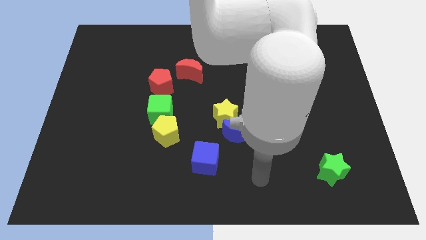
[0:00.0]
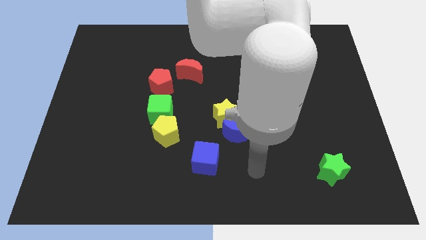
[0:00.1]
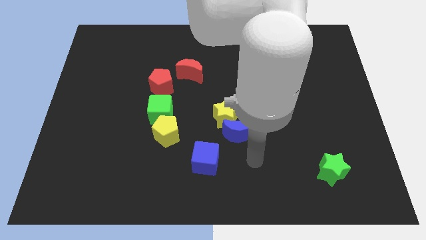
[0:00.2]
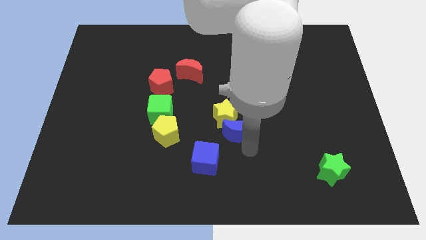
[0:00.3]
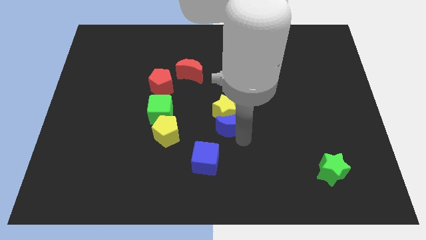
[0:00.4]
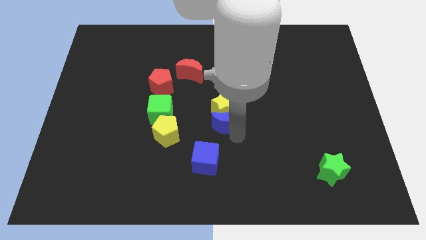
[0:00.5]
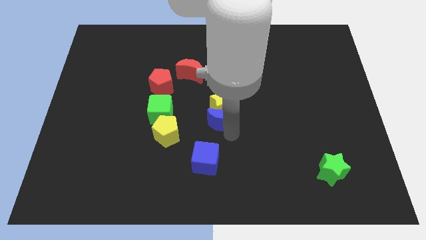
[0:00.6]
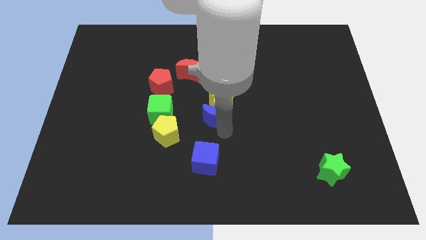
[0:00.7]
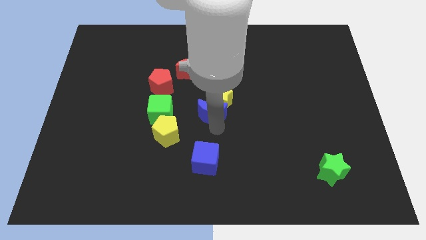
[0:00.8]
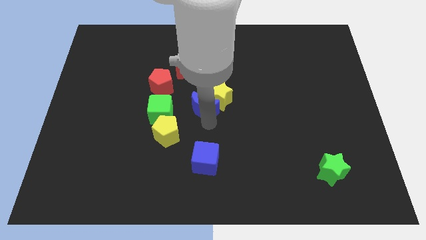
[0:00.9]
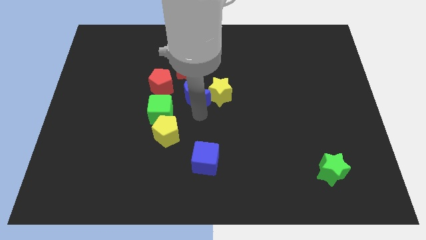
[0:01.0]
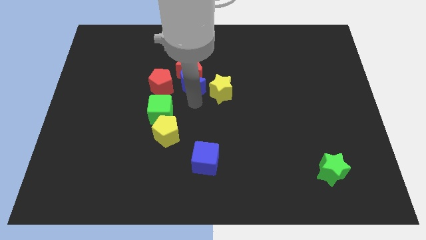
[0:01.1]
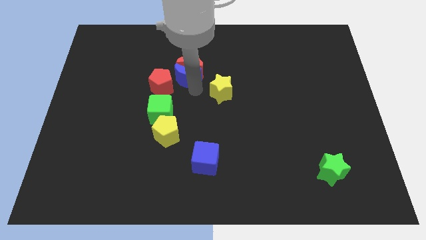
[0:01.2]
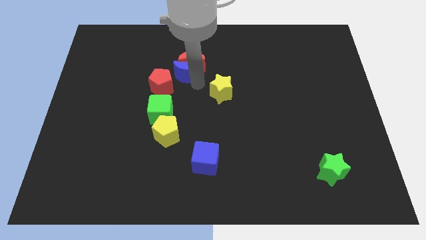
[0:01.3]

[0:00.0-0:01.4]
move the yellow star away from the blue moon

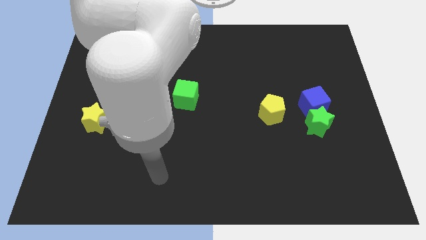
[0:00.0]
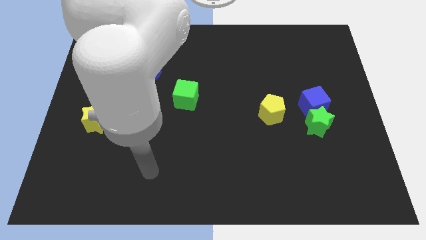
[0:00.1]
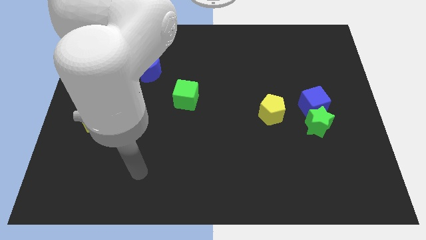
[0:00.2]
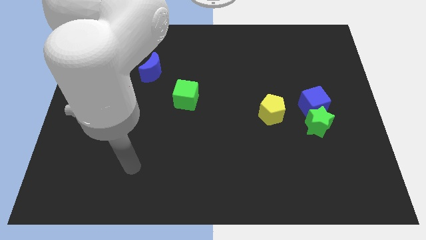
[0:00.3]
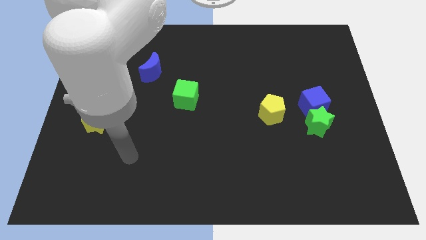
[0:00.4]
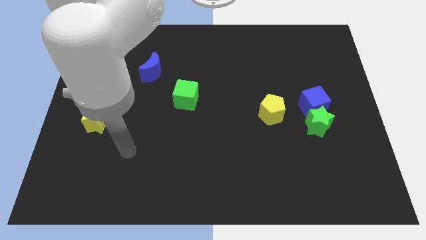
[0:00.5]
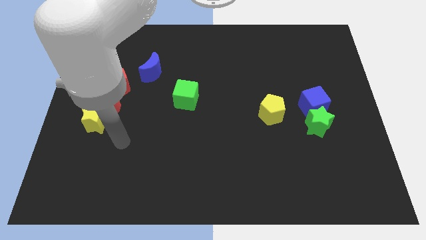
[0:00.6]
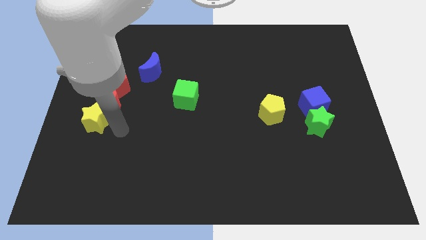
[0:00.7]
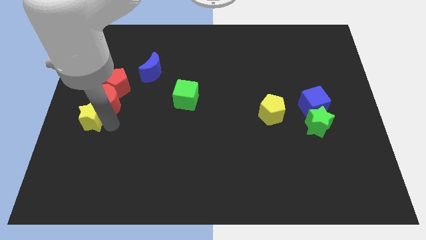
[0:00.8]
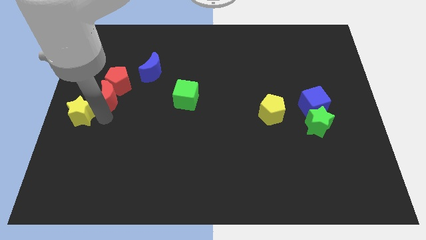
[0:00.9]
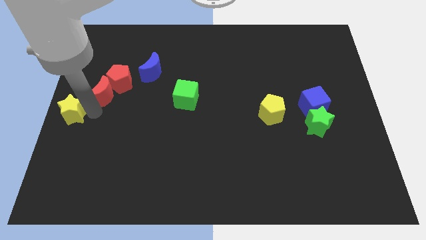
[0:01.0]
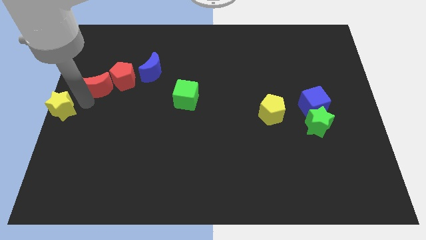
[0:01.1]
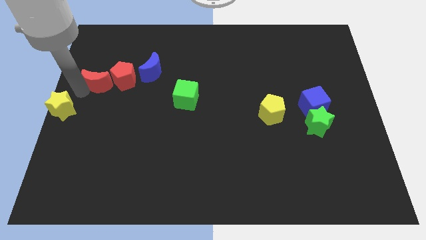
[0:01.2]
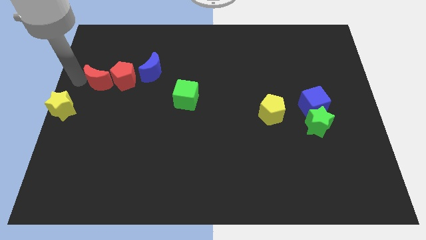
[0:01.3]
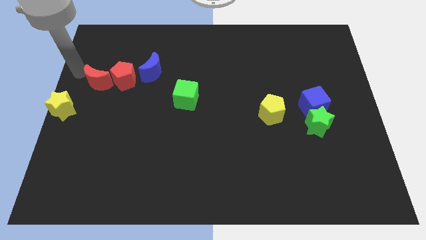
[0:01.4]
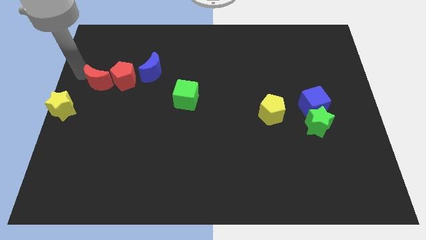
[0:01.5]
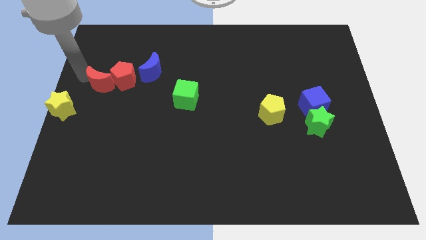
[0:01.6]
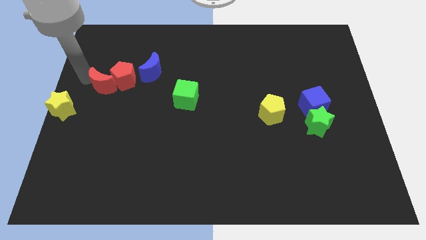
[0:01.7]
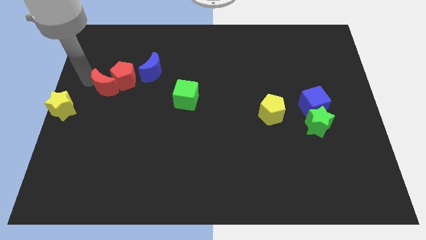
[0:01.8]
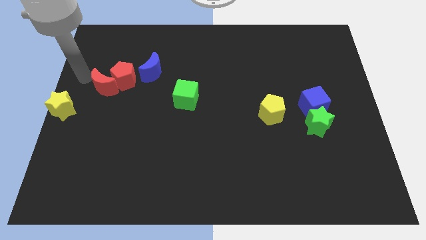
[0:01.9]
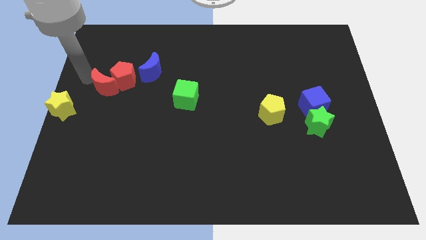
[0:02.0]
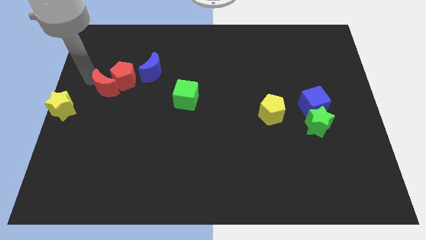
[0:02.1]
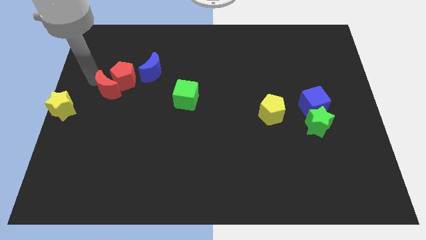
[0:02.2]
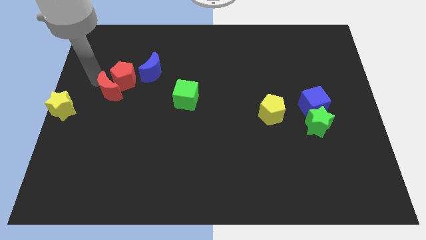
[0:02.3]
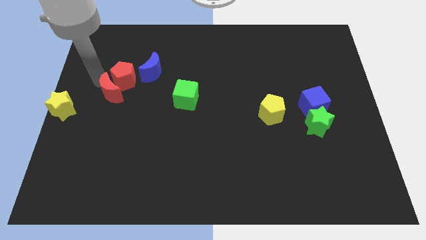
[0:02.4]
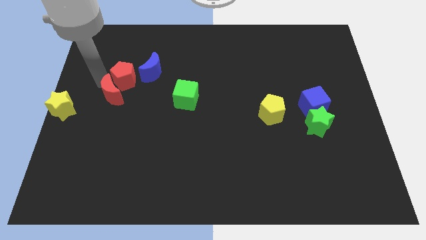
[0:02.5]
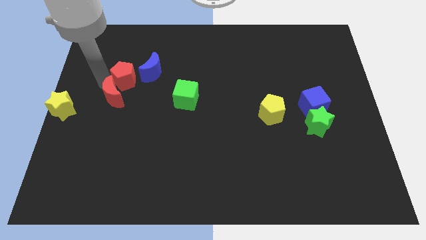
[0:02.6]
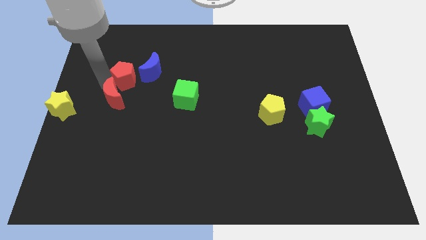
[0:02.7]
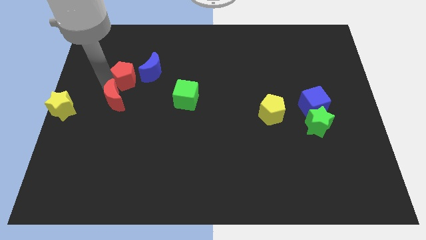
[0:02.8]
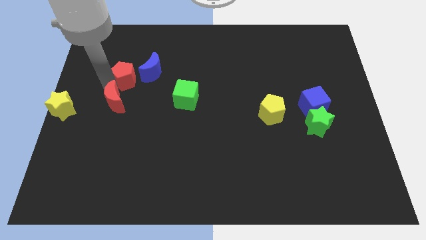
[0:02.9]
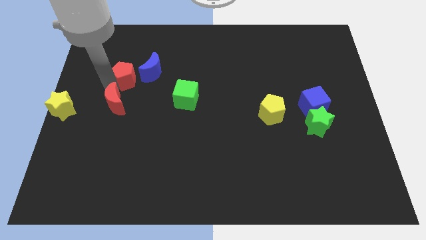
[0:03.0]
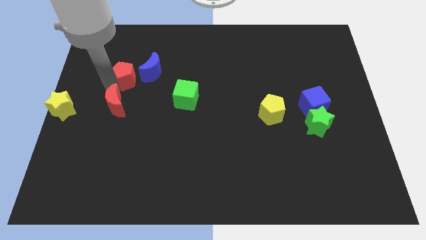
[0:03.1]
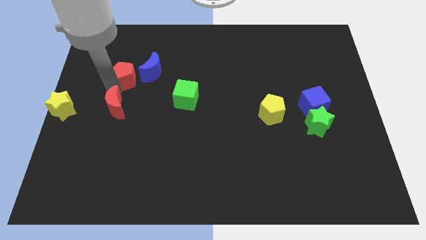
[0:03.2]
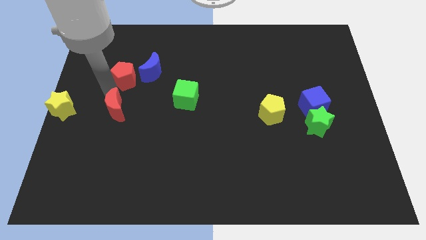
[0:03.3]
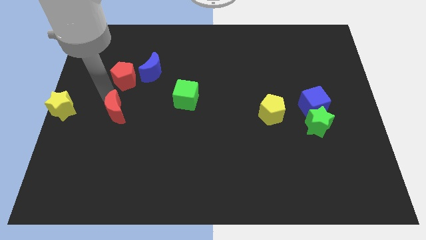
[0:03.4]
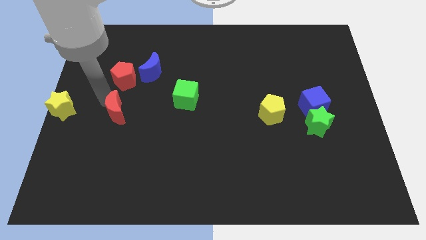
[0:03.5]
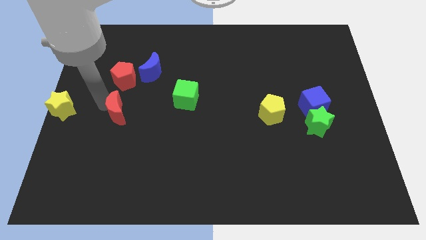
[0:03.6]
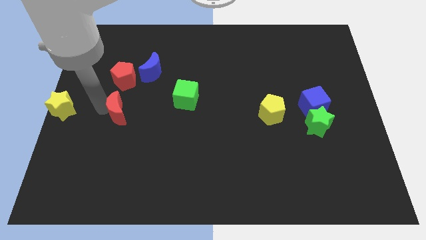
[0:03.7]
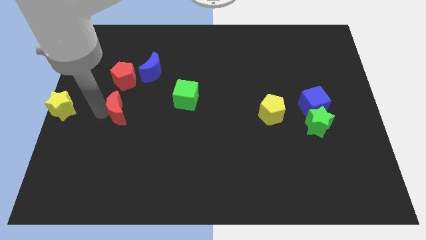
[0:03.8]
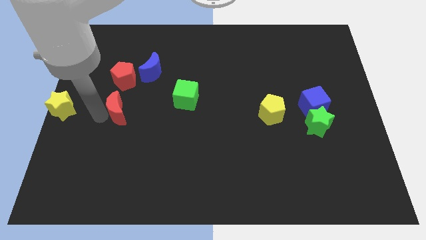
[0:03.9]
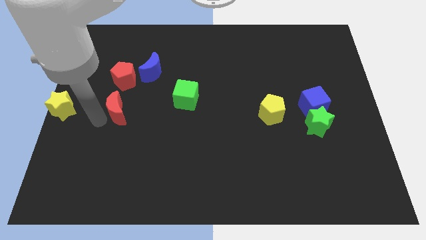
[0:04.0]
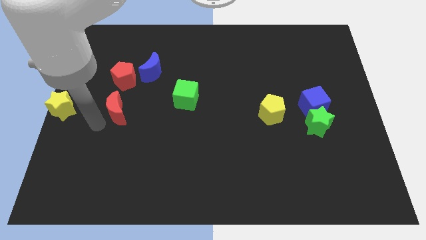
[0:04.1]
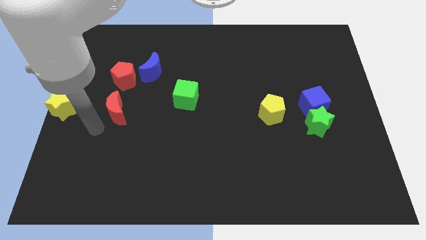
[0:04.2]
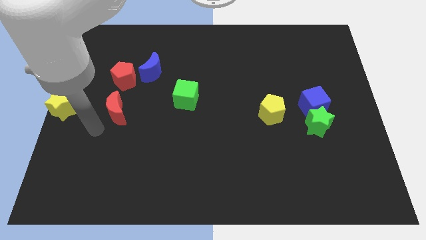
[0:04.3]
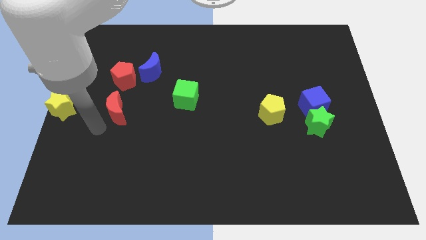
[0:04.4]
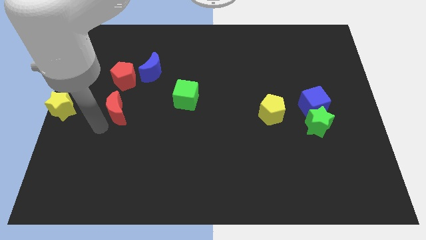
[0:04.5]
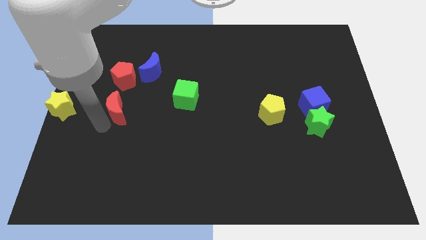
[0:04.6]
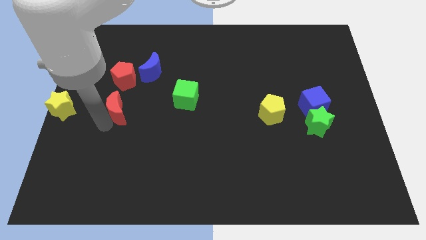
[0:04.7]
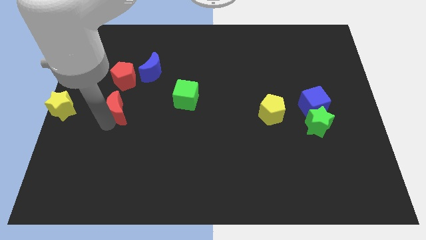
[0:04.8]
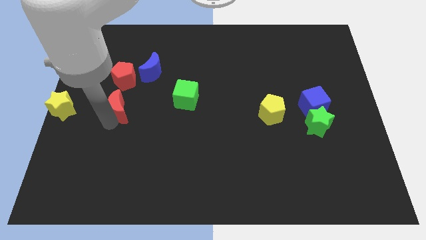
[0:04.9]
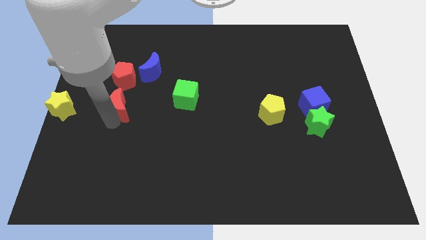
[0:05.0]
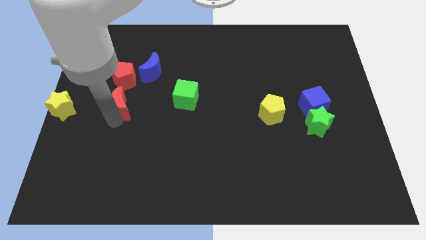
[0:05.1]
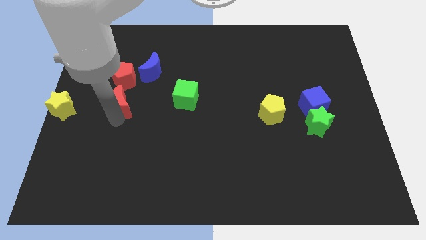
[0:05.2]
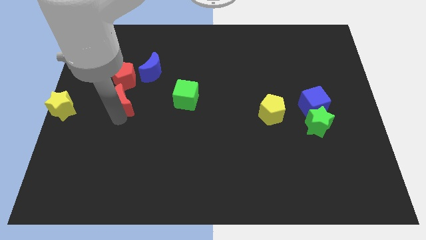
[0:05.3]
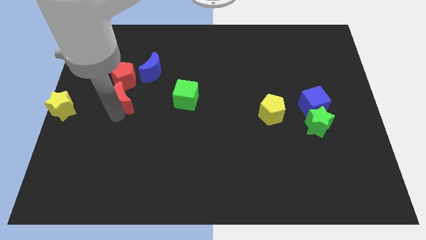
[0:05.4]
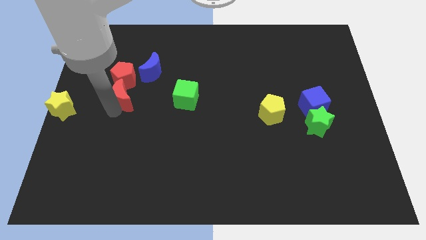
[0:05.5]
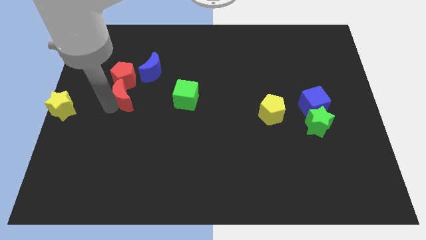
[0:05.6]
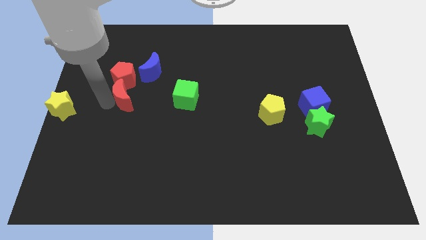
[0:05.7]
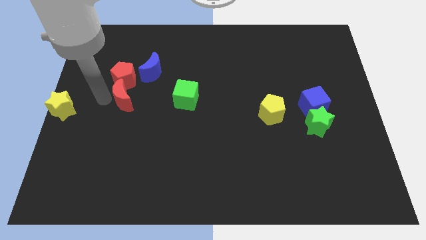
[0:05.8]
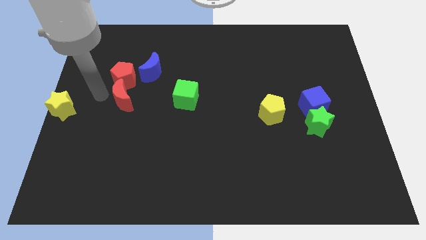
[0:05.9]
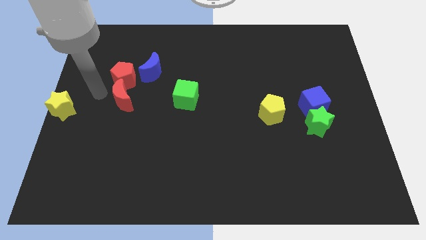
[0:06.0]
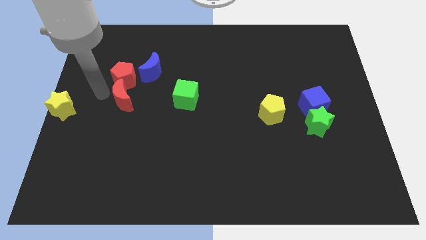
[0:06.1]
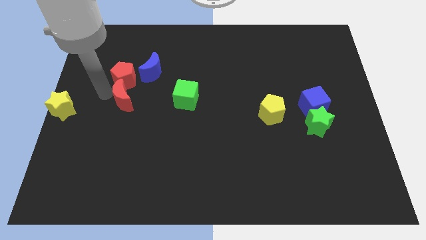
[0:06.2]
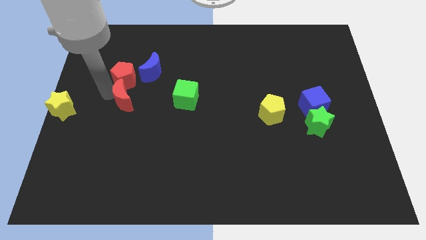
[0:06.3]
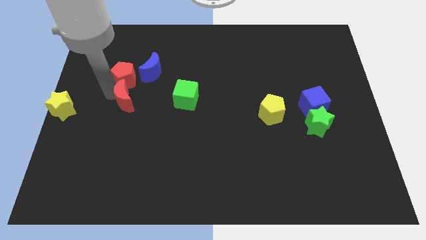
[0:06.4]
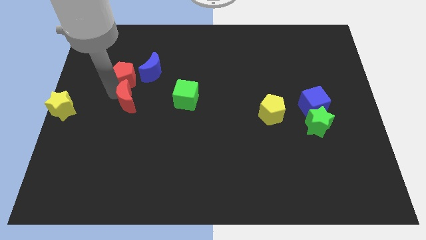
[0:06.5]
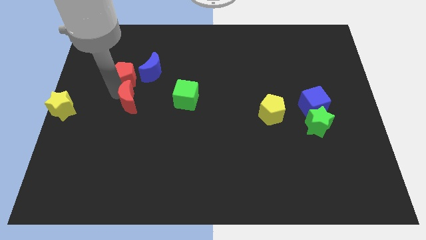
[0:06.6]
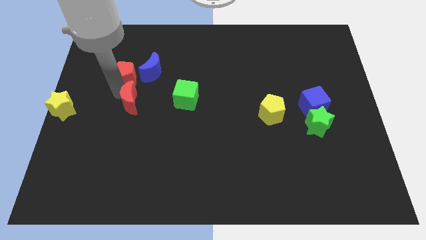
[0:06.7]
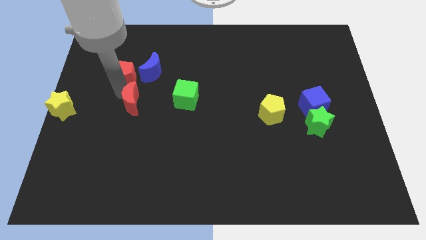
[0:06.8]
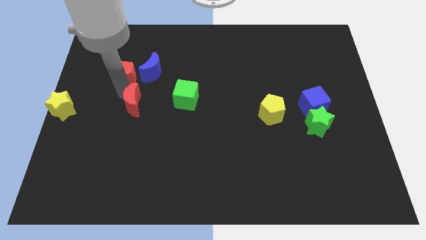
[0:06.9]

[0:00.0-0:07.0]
move the red moon away from the red pentagon and yellow star

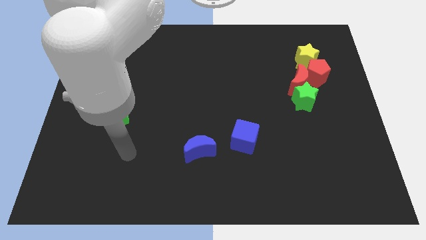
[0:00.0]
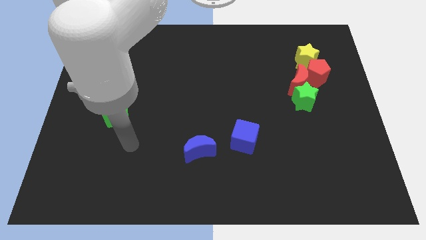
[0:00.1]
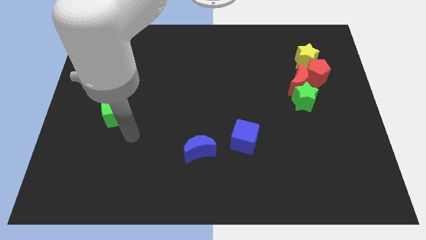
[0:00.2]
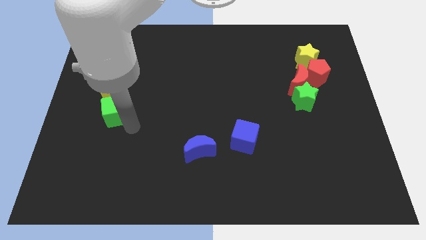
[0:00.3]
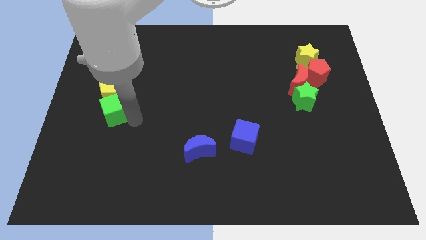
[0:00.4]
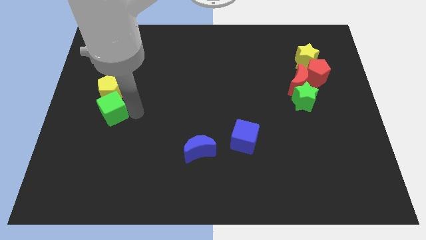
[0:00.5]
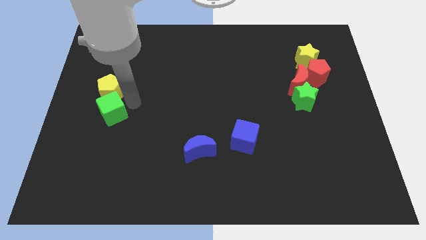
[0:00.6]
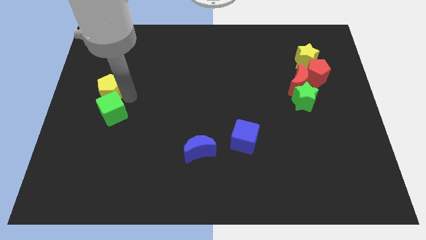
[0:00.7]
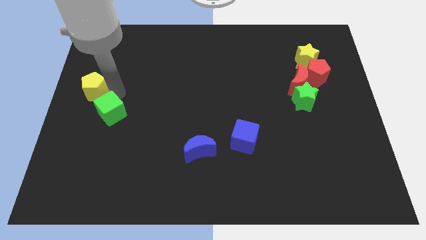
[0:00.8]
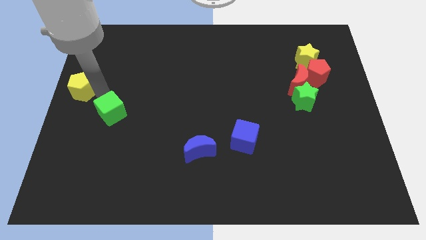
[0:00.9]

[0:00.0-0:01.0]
pull the green cube apart from the yellow pentagon
